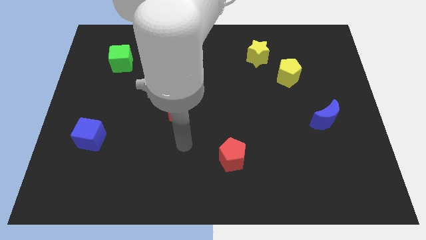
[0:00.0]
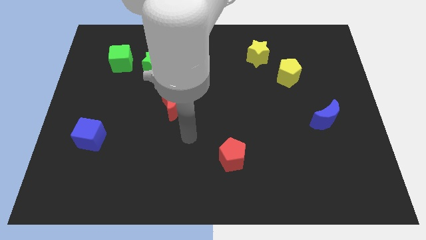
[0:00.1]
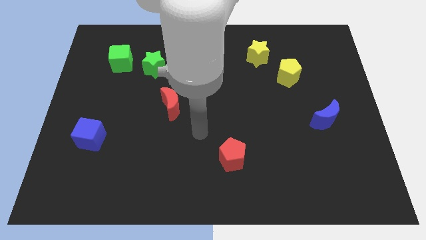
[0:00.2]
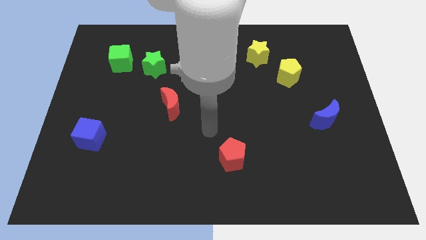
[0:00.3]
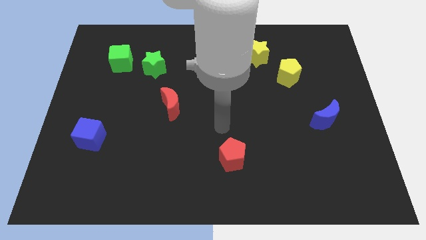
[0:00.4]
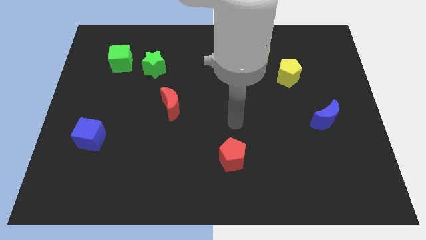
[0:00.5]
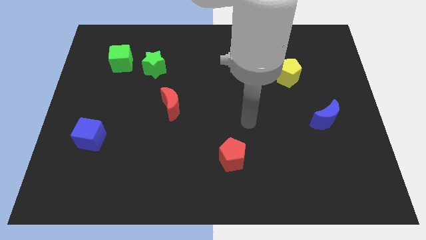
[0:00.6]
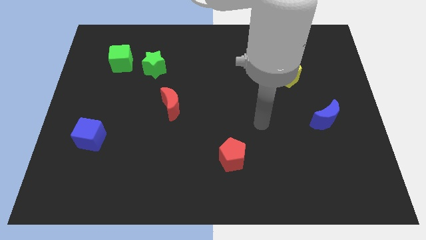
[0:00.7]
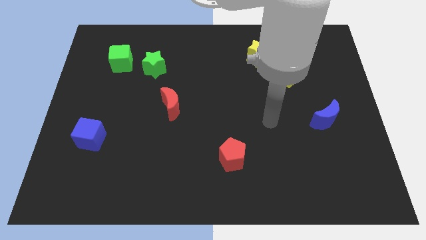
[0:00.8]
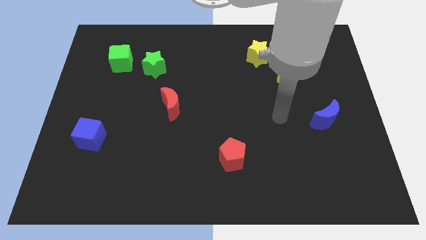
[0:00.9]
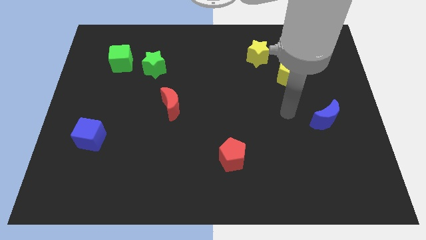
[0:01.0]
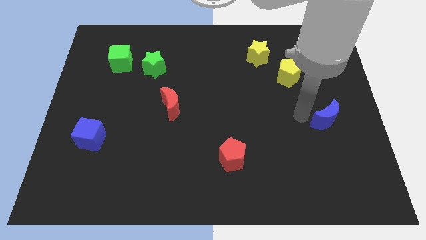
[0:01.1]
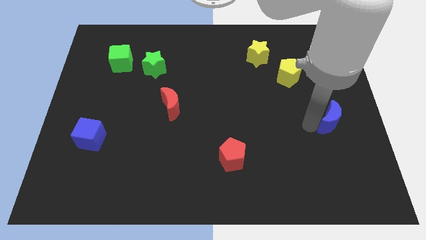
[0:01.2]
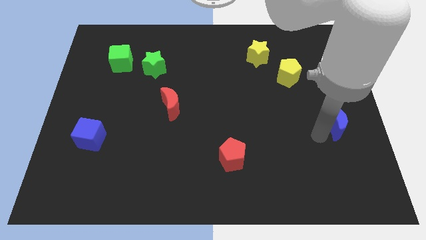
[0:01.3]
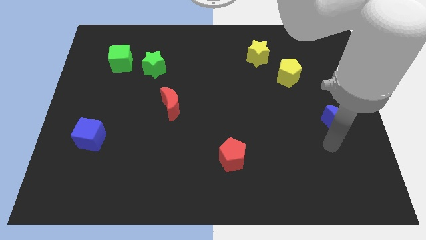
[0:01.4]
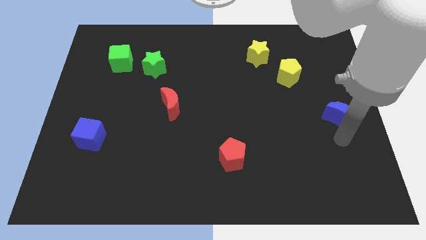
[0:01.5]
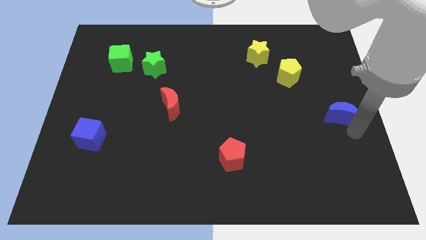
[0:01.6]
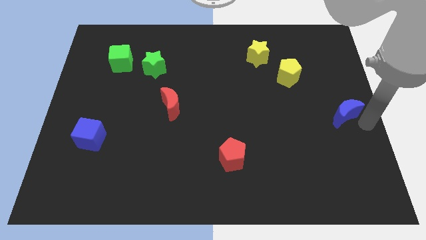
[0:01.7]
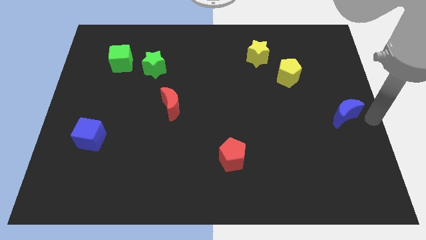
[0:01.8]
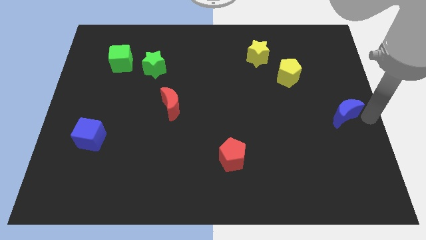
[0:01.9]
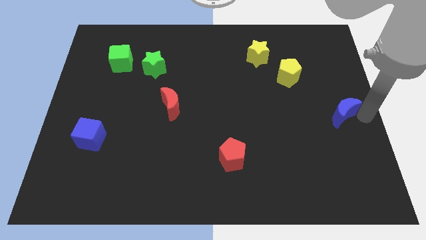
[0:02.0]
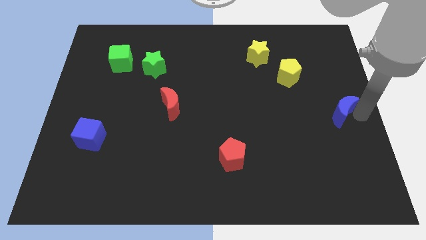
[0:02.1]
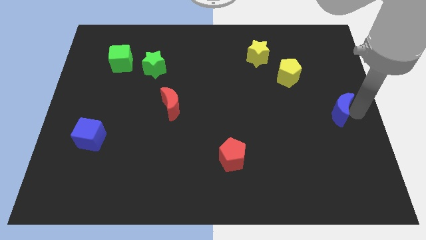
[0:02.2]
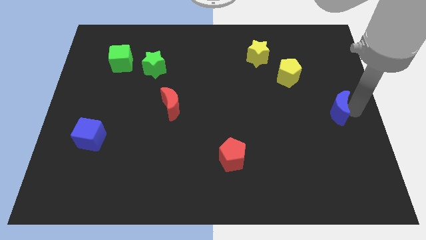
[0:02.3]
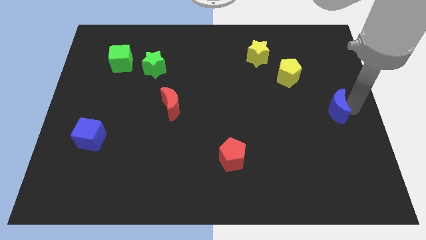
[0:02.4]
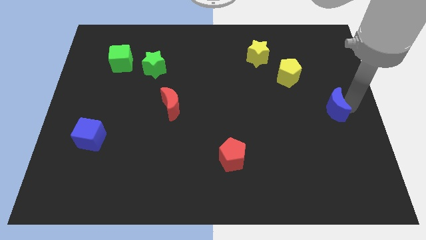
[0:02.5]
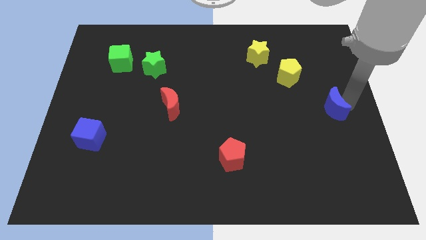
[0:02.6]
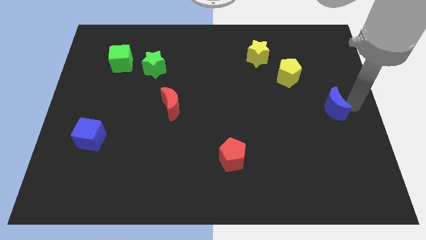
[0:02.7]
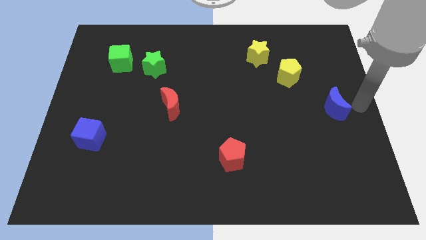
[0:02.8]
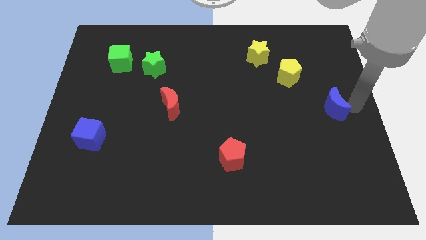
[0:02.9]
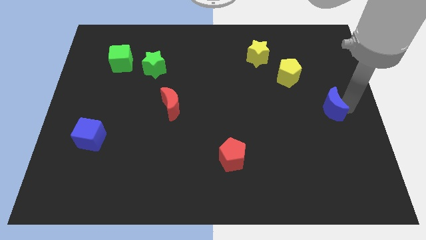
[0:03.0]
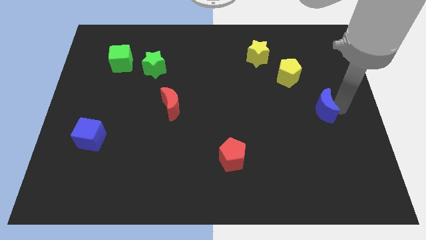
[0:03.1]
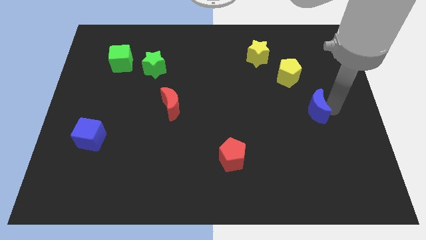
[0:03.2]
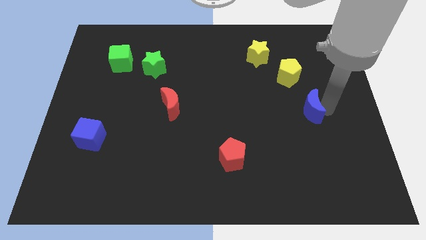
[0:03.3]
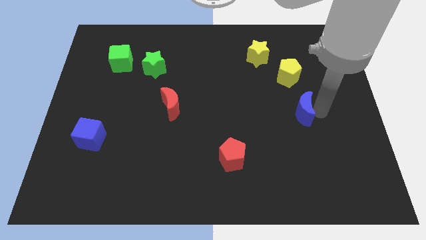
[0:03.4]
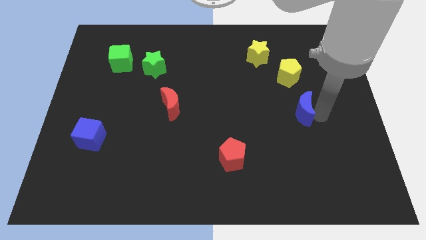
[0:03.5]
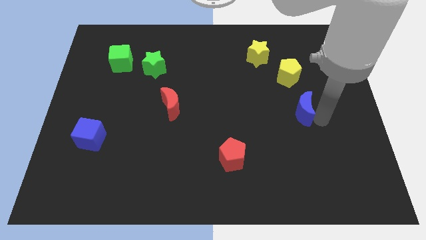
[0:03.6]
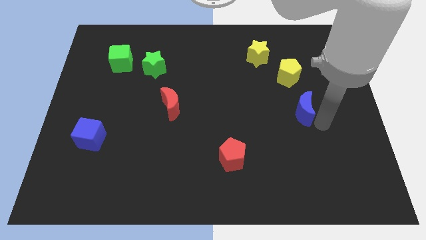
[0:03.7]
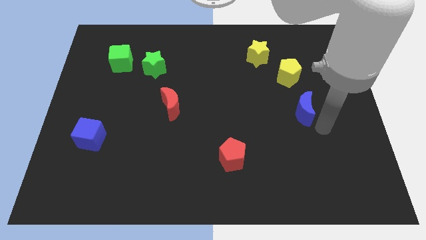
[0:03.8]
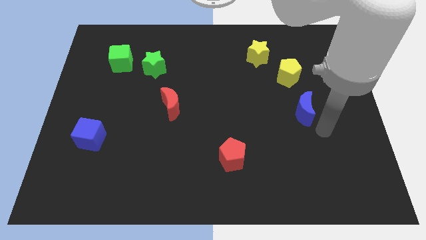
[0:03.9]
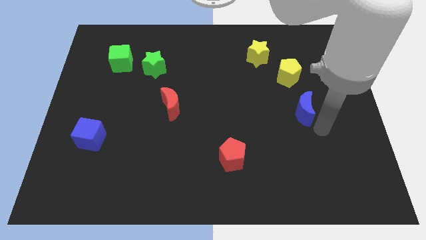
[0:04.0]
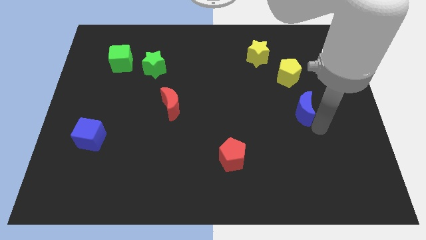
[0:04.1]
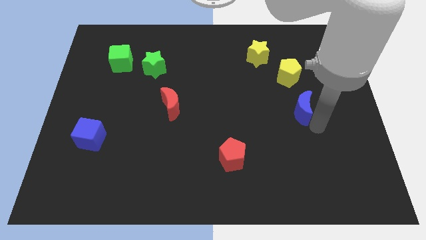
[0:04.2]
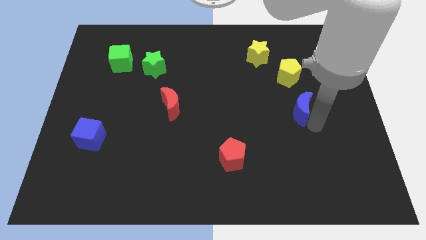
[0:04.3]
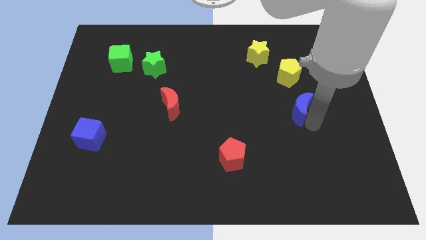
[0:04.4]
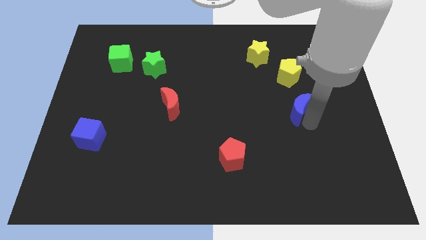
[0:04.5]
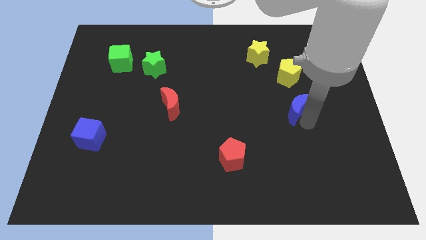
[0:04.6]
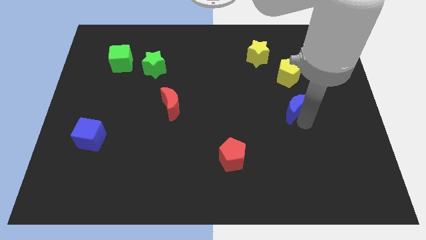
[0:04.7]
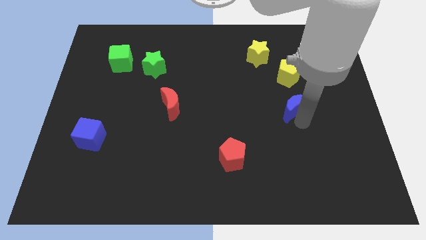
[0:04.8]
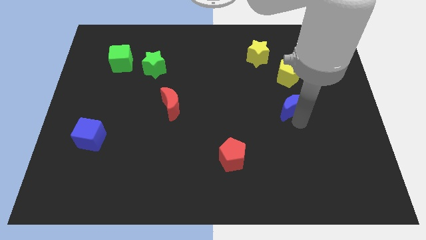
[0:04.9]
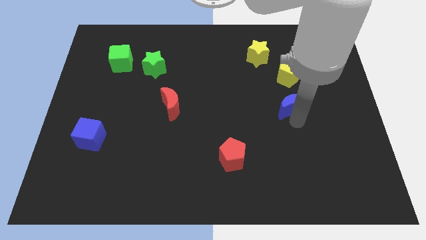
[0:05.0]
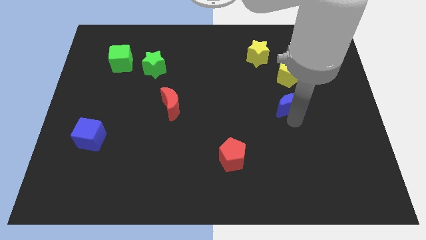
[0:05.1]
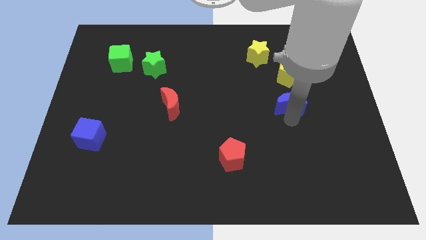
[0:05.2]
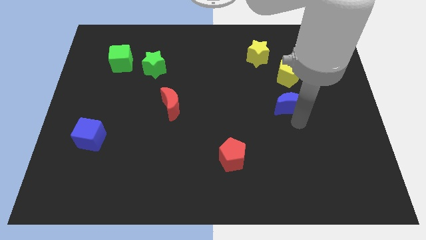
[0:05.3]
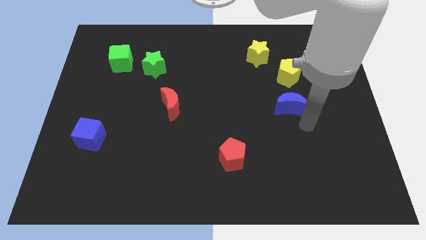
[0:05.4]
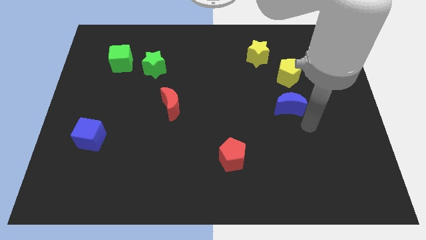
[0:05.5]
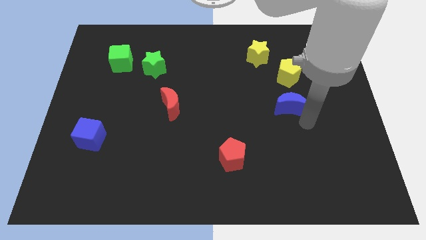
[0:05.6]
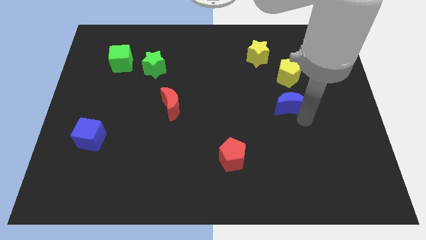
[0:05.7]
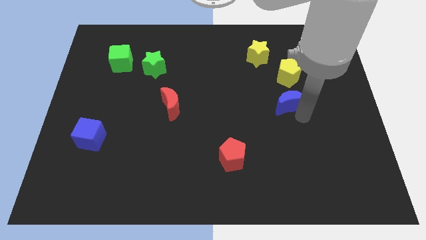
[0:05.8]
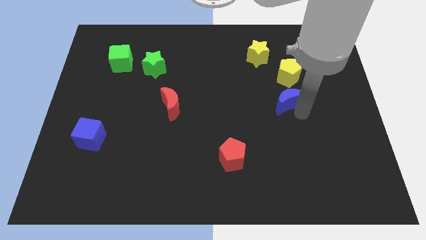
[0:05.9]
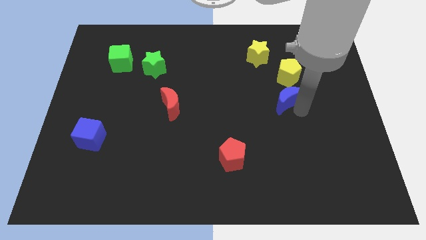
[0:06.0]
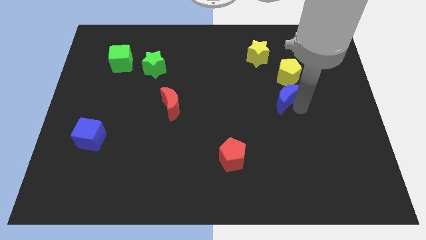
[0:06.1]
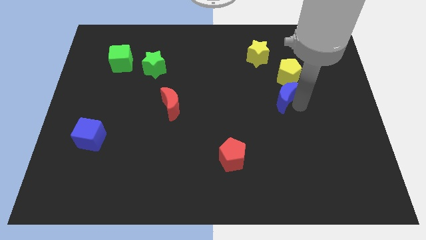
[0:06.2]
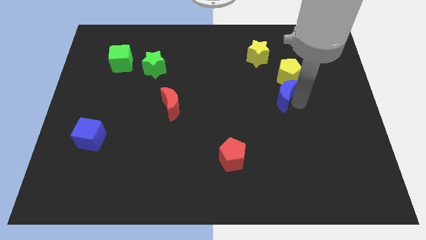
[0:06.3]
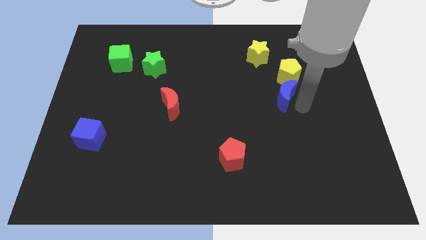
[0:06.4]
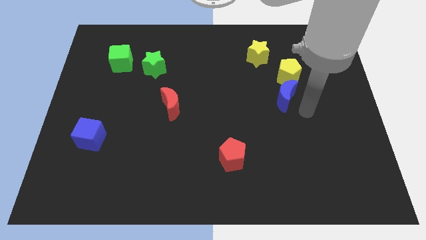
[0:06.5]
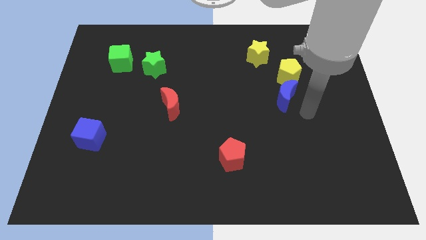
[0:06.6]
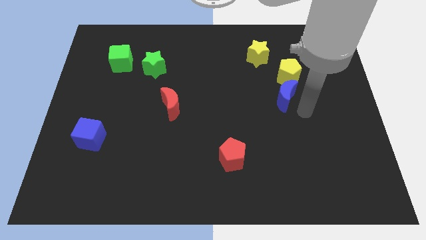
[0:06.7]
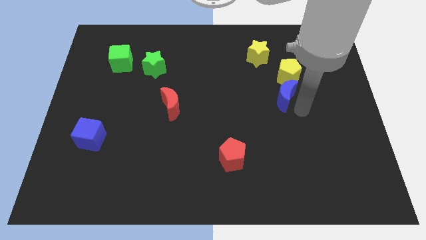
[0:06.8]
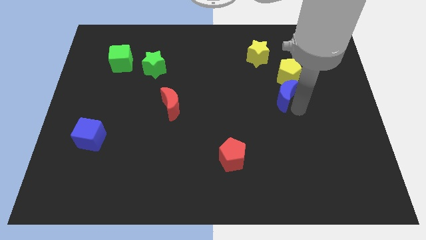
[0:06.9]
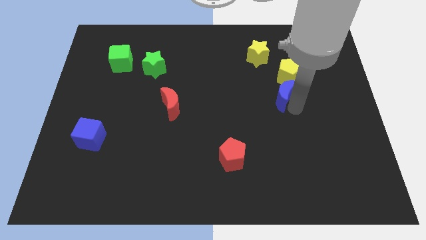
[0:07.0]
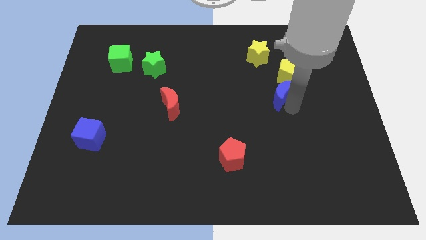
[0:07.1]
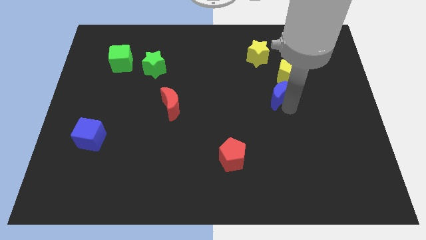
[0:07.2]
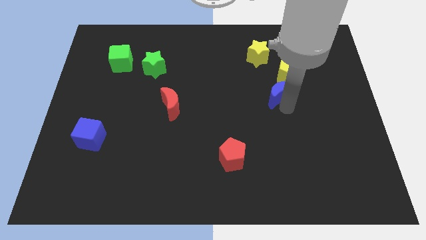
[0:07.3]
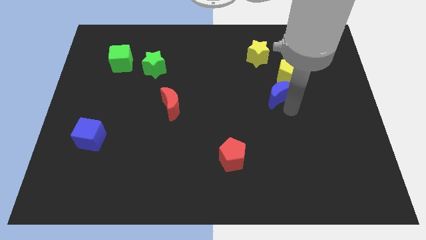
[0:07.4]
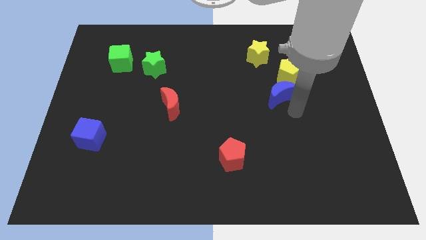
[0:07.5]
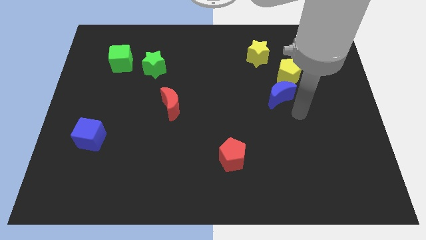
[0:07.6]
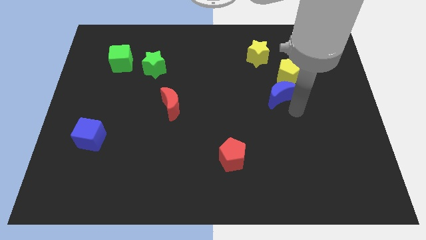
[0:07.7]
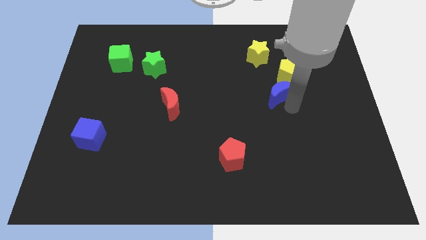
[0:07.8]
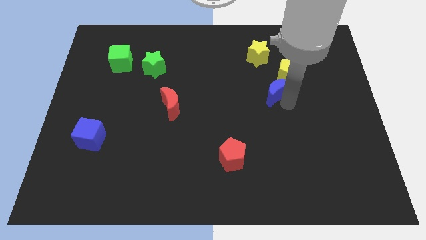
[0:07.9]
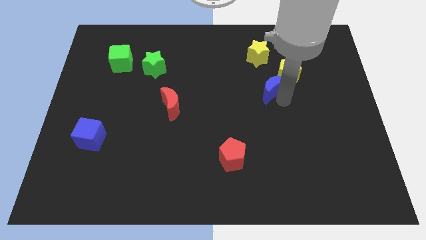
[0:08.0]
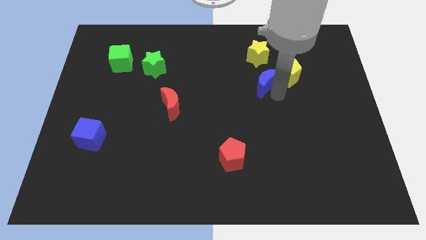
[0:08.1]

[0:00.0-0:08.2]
put the blue moon to the left of the yellow pentagon

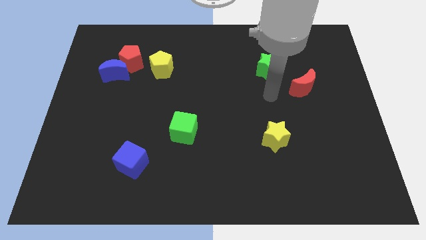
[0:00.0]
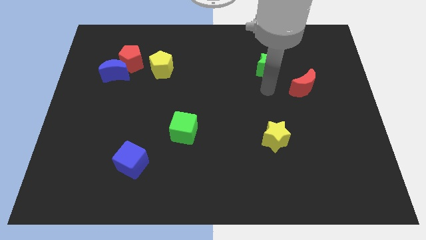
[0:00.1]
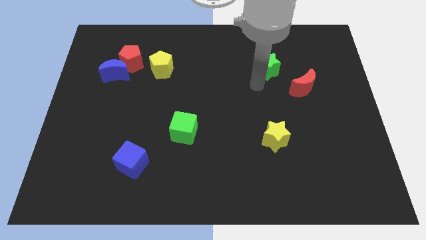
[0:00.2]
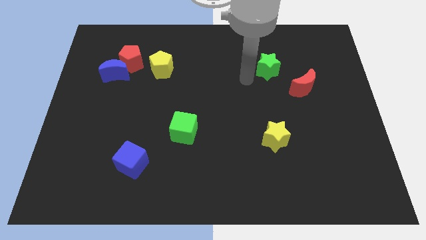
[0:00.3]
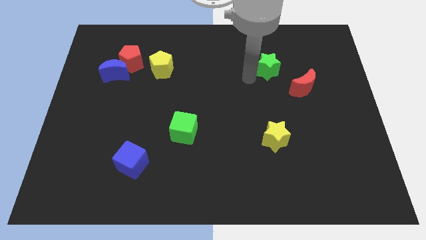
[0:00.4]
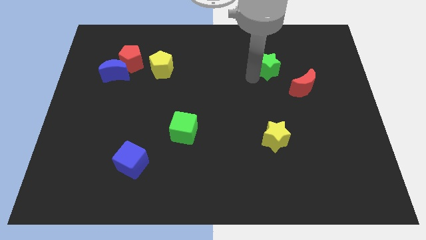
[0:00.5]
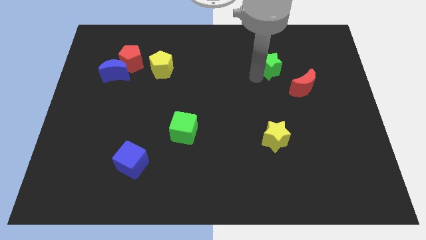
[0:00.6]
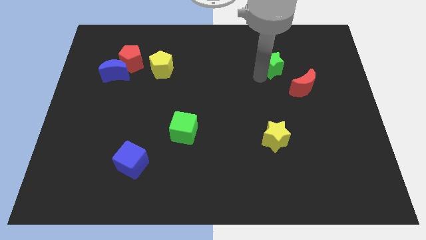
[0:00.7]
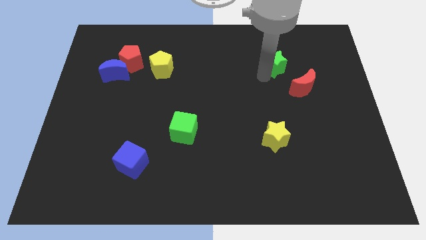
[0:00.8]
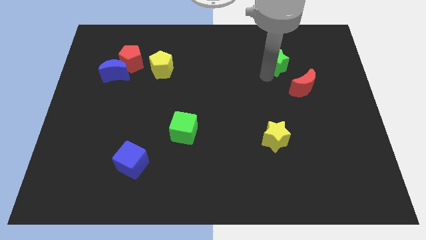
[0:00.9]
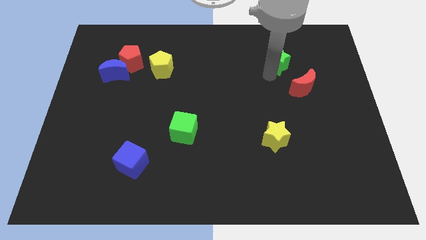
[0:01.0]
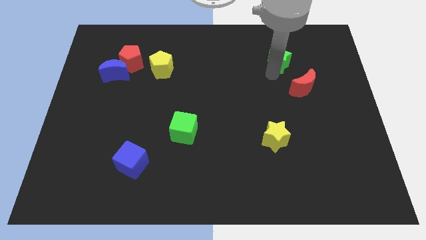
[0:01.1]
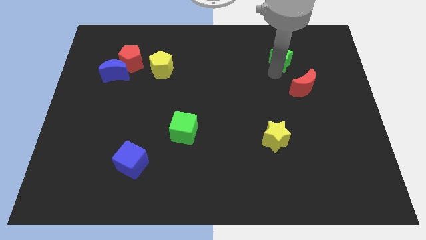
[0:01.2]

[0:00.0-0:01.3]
put the green star to the top of the red moon
